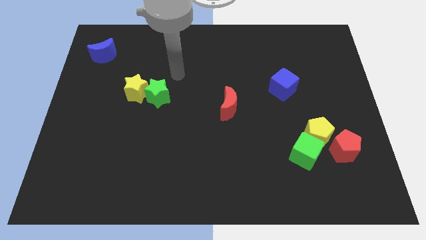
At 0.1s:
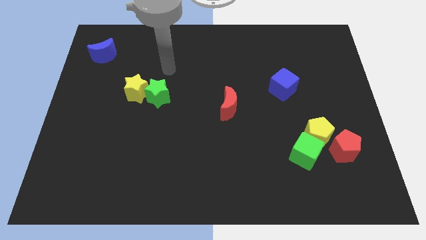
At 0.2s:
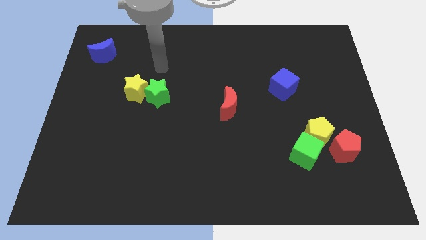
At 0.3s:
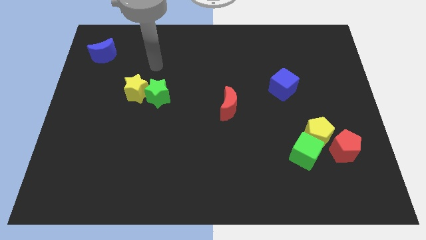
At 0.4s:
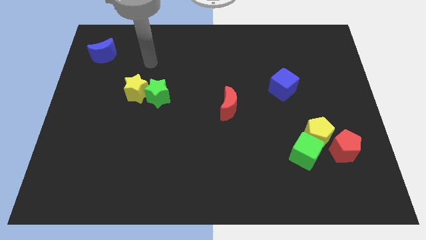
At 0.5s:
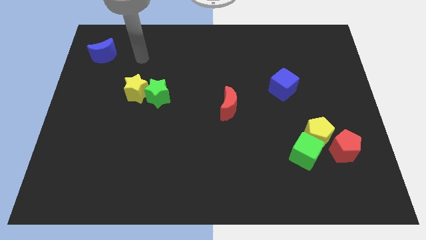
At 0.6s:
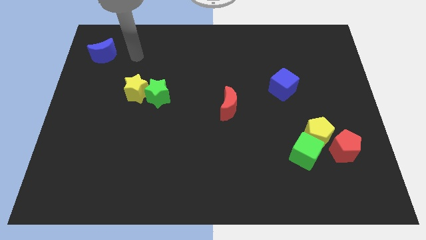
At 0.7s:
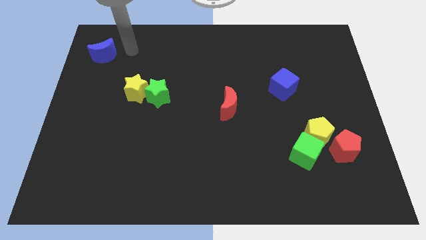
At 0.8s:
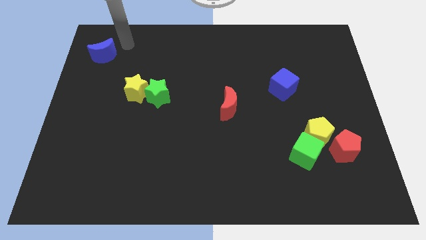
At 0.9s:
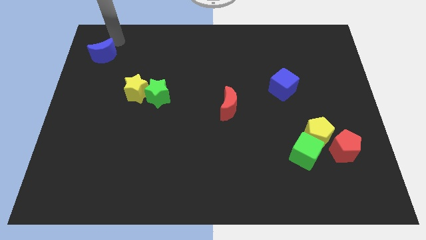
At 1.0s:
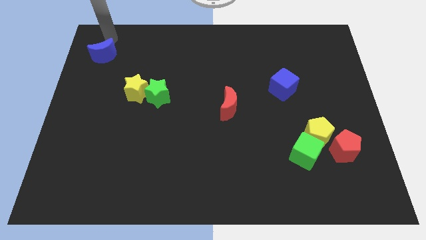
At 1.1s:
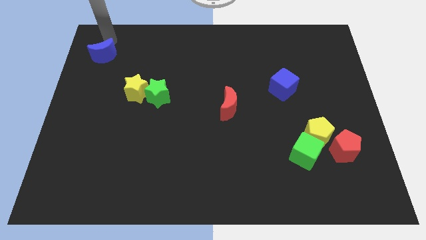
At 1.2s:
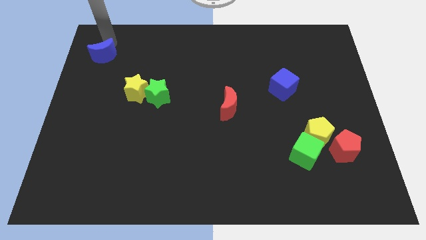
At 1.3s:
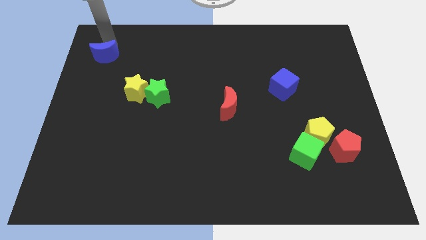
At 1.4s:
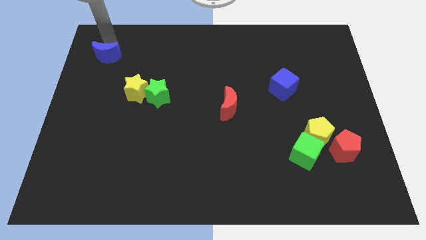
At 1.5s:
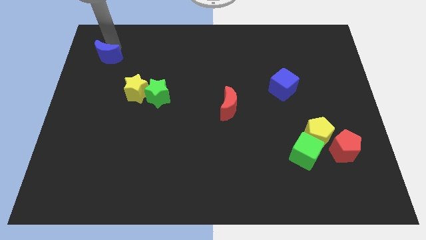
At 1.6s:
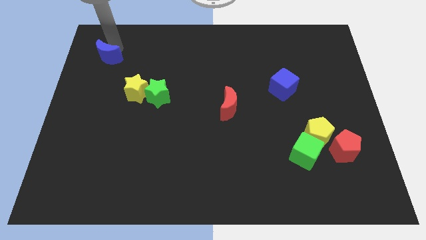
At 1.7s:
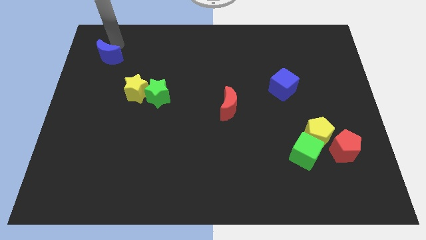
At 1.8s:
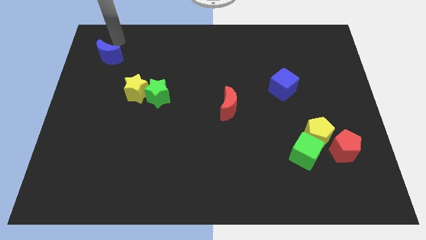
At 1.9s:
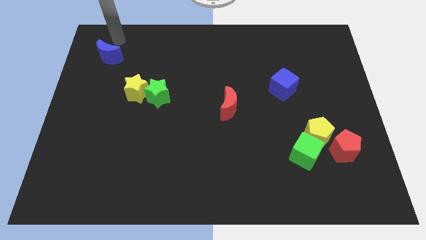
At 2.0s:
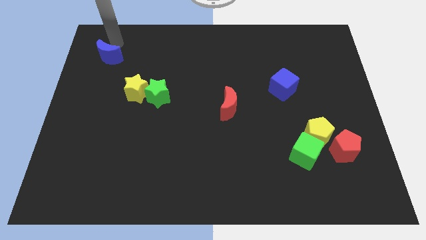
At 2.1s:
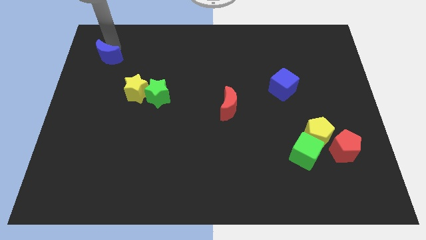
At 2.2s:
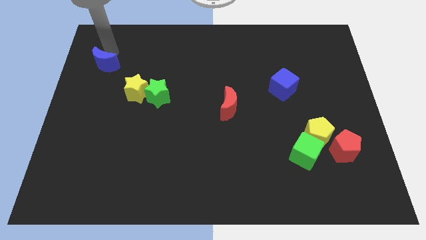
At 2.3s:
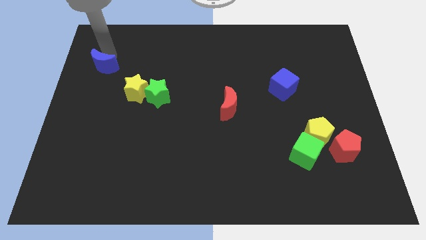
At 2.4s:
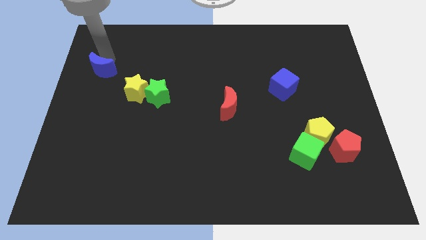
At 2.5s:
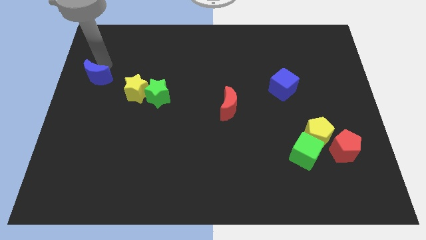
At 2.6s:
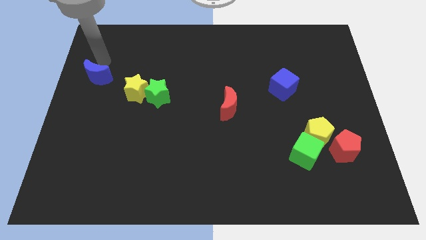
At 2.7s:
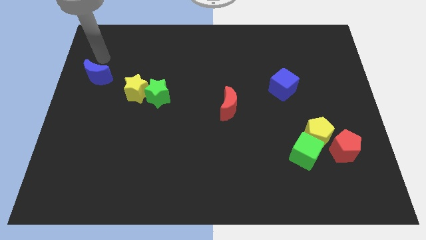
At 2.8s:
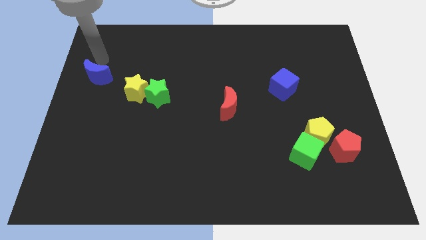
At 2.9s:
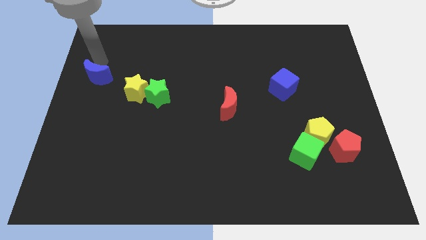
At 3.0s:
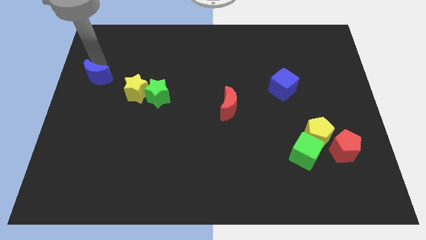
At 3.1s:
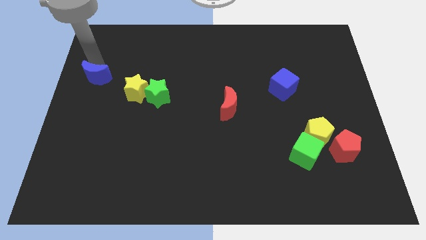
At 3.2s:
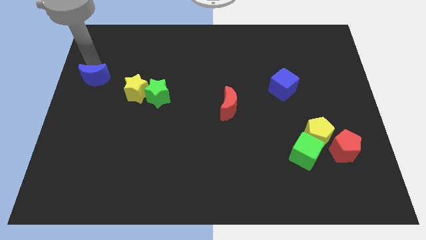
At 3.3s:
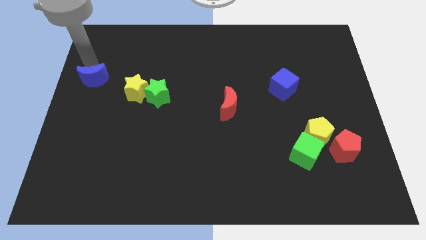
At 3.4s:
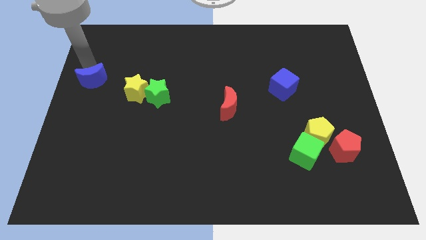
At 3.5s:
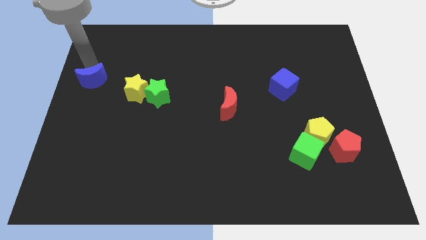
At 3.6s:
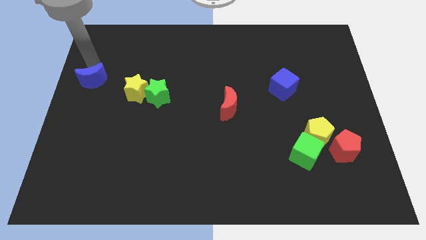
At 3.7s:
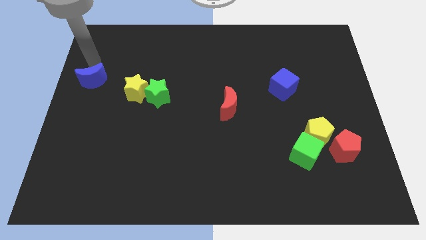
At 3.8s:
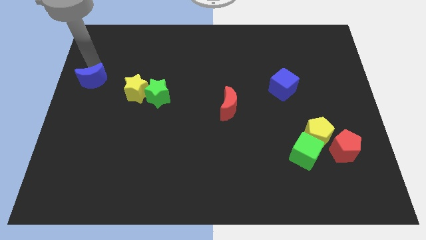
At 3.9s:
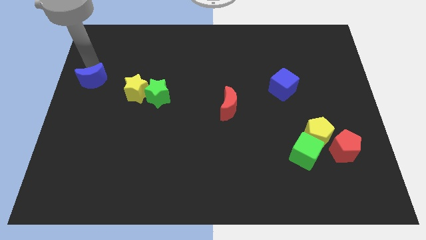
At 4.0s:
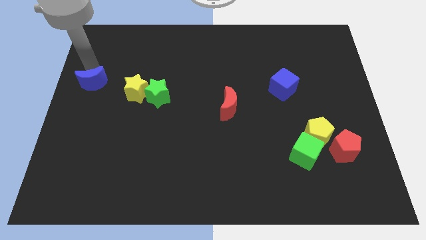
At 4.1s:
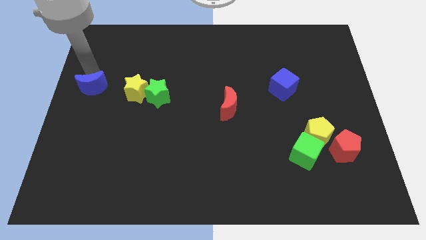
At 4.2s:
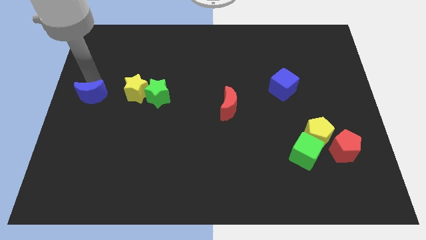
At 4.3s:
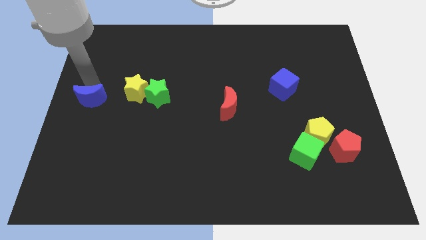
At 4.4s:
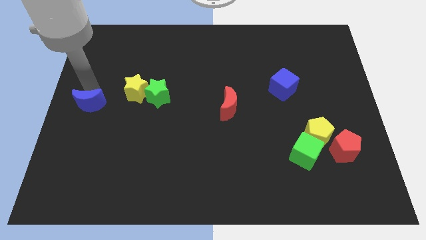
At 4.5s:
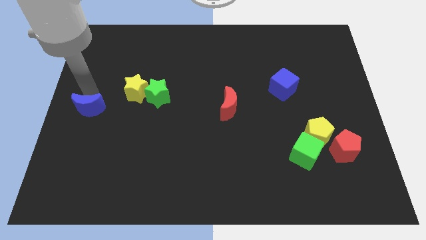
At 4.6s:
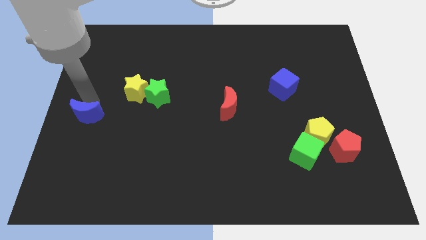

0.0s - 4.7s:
move the blue moon downwards

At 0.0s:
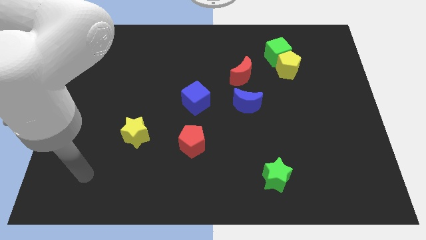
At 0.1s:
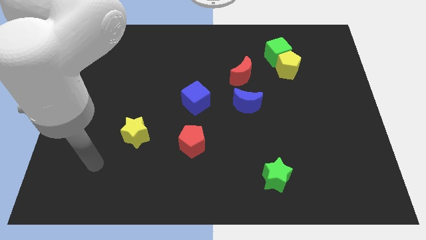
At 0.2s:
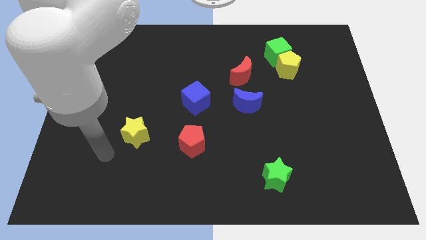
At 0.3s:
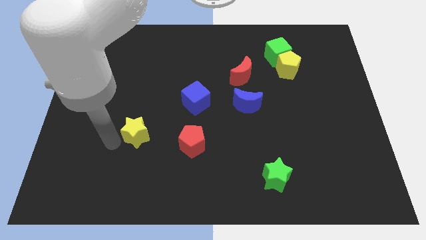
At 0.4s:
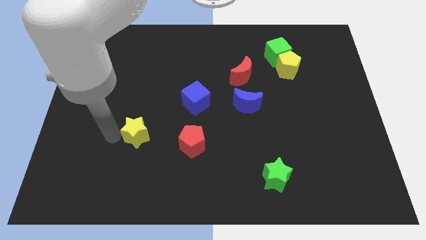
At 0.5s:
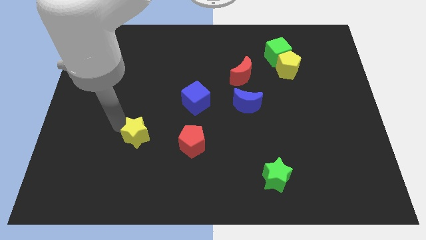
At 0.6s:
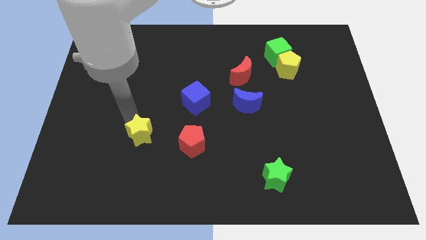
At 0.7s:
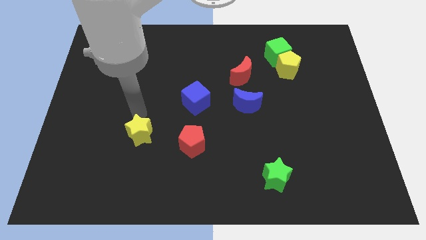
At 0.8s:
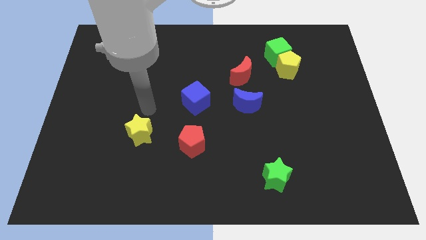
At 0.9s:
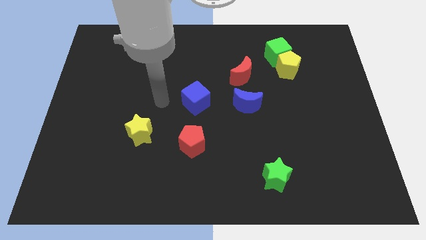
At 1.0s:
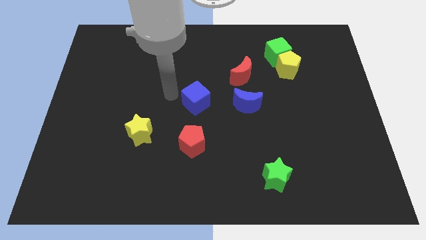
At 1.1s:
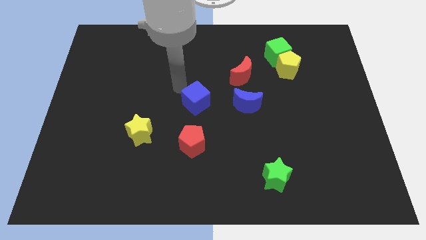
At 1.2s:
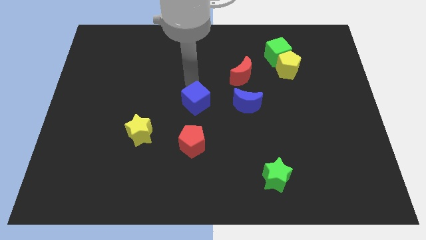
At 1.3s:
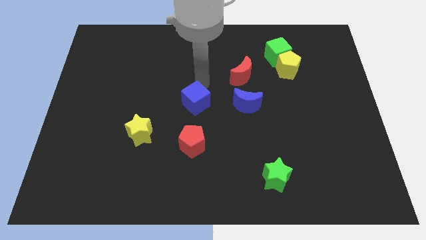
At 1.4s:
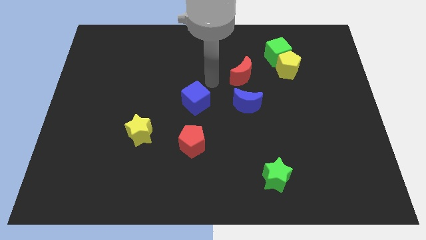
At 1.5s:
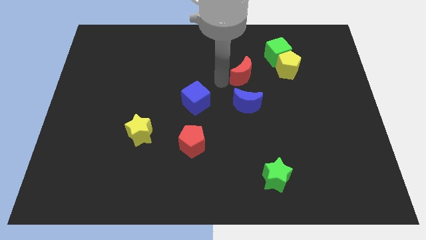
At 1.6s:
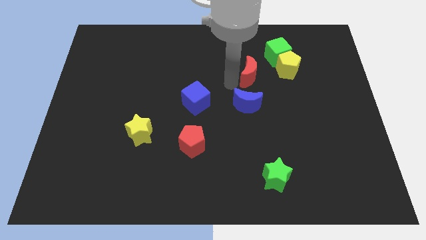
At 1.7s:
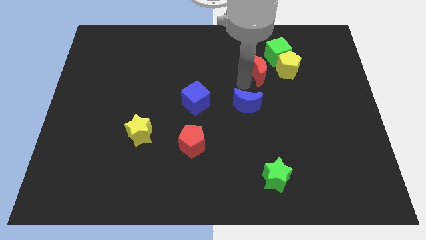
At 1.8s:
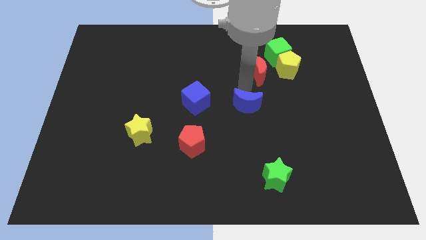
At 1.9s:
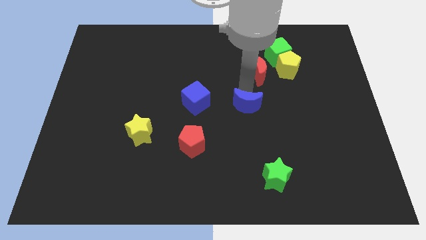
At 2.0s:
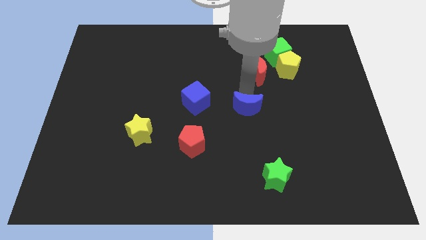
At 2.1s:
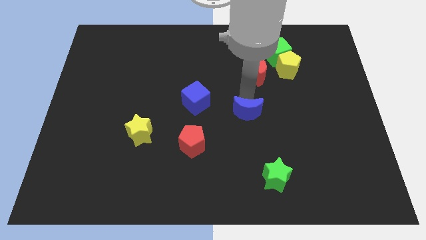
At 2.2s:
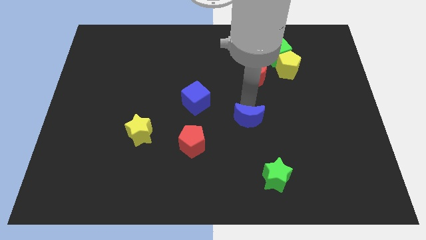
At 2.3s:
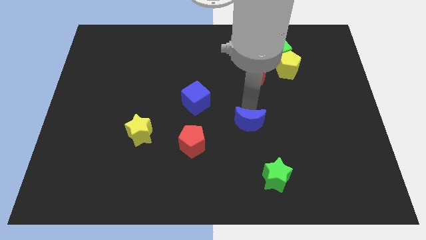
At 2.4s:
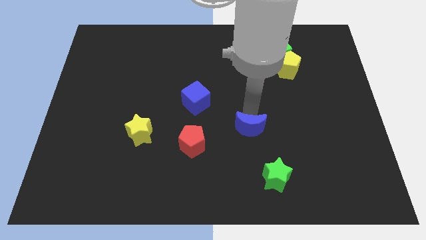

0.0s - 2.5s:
slightly push the blue moon down

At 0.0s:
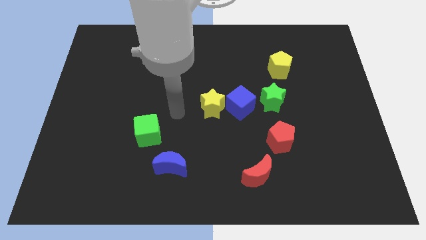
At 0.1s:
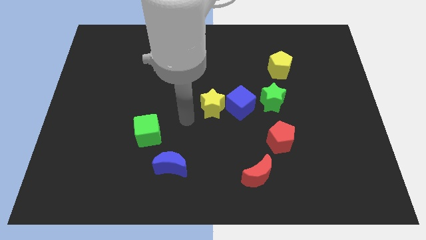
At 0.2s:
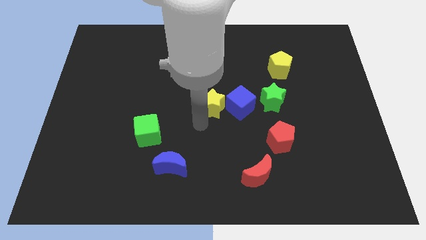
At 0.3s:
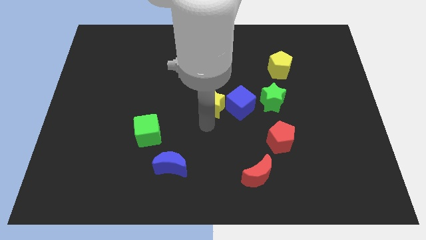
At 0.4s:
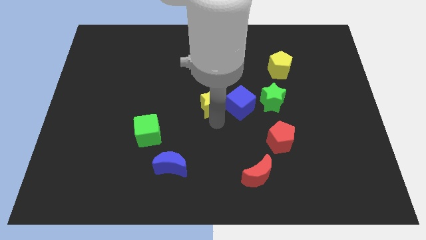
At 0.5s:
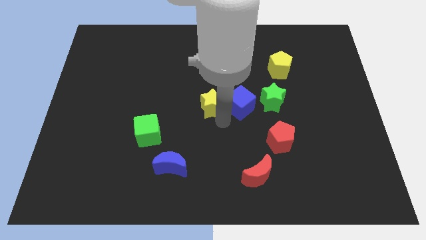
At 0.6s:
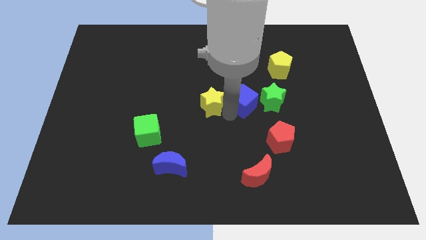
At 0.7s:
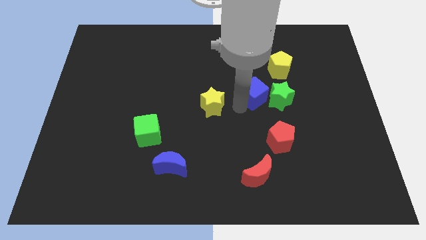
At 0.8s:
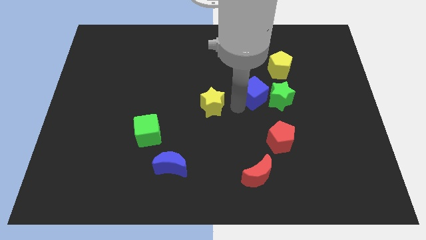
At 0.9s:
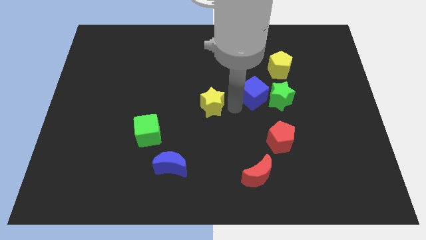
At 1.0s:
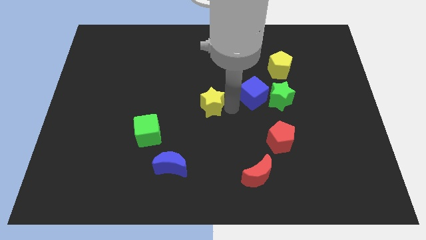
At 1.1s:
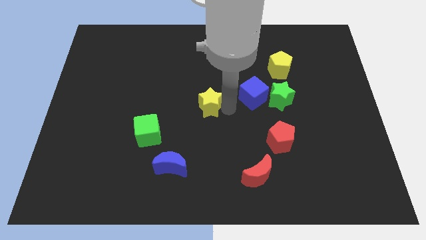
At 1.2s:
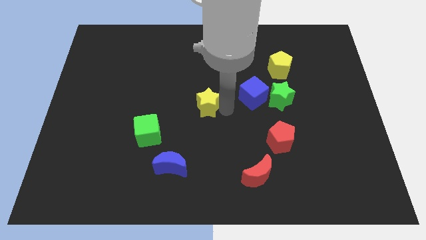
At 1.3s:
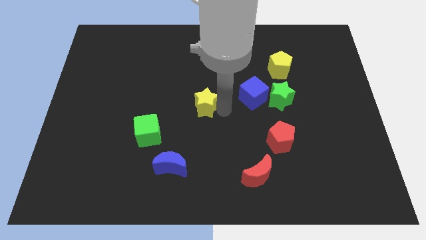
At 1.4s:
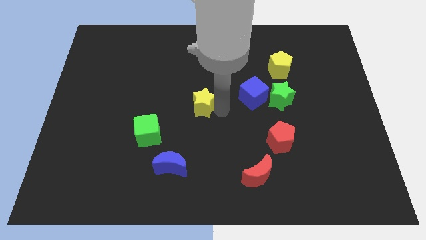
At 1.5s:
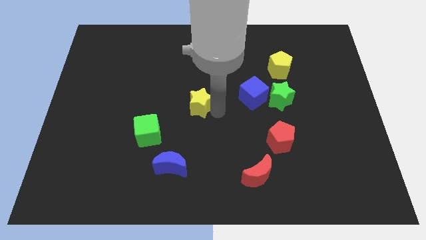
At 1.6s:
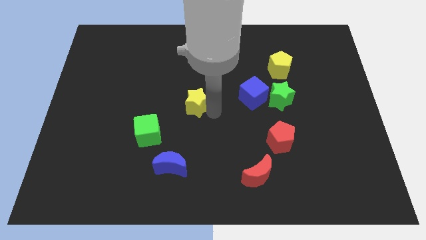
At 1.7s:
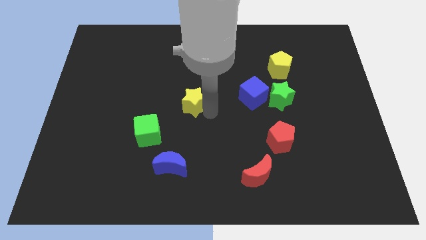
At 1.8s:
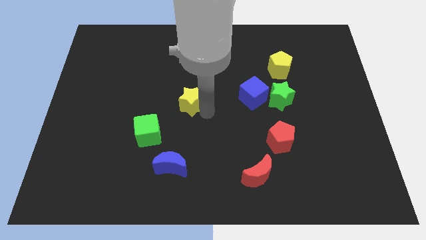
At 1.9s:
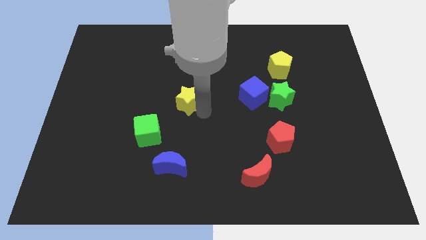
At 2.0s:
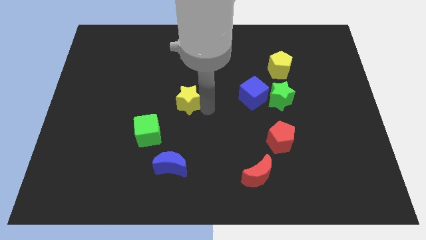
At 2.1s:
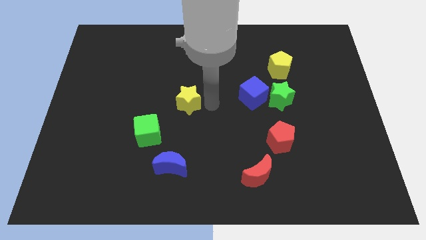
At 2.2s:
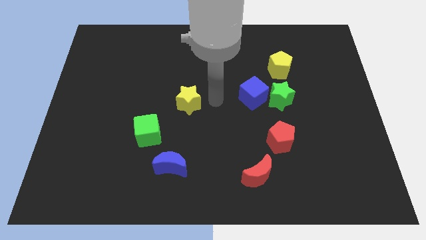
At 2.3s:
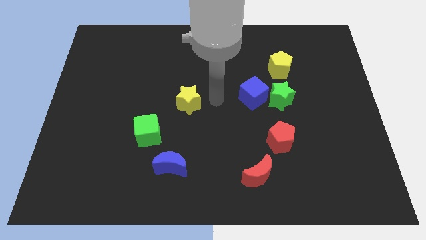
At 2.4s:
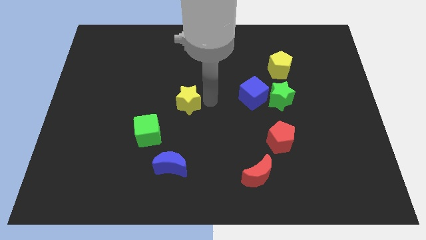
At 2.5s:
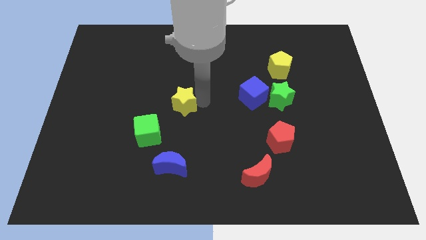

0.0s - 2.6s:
slide the yellow star somewhat to the left
